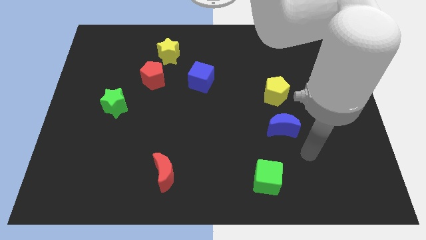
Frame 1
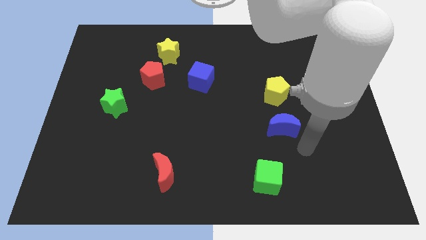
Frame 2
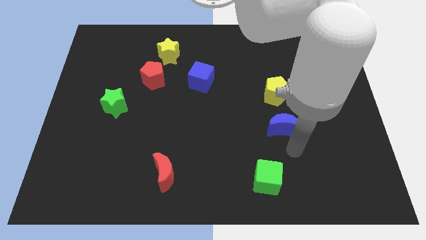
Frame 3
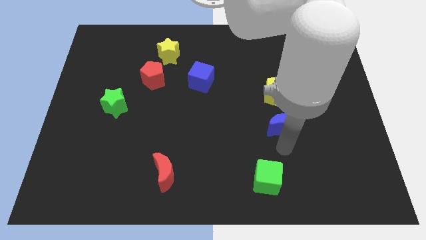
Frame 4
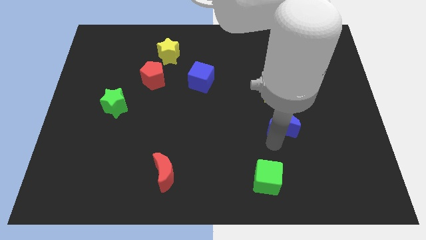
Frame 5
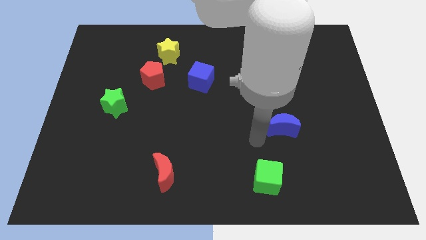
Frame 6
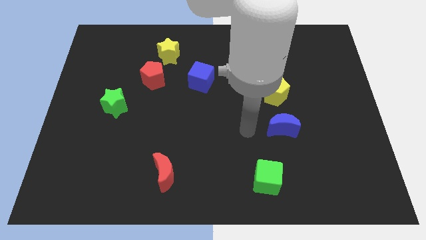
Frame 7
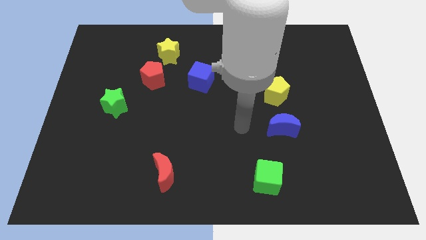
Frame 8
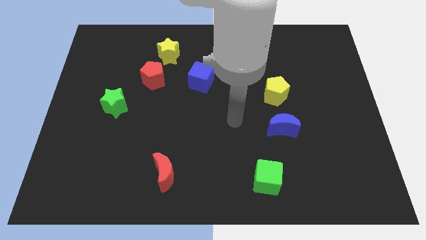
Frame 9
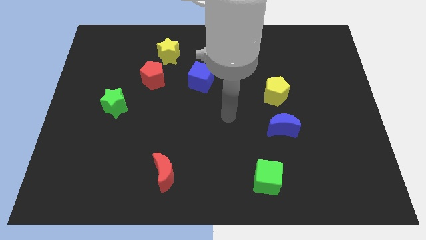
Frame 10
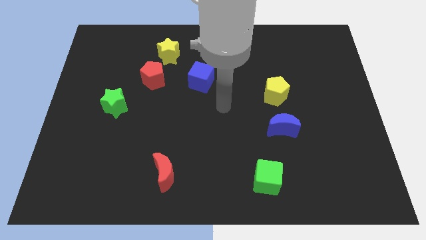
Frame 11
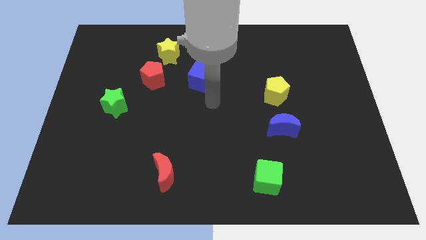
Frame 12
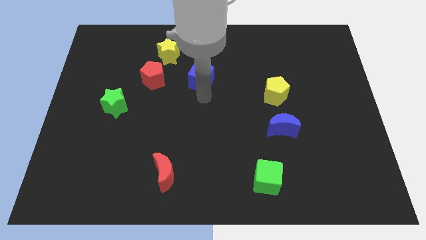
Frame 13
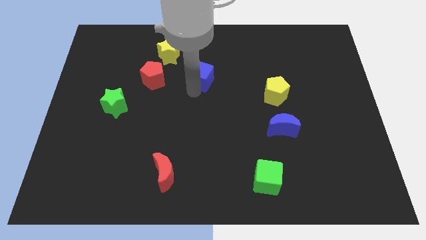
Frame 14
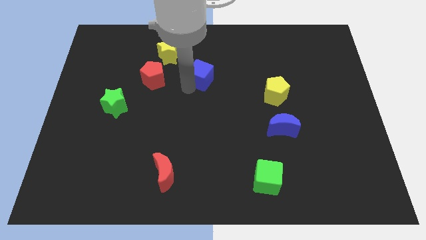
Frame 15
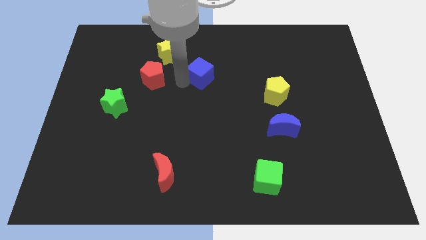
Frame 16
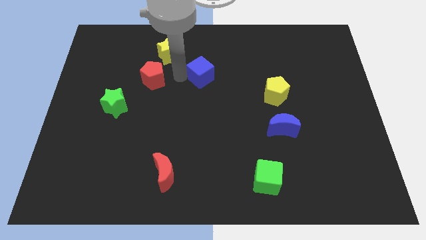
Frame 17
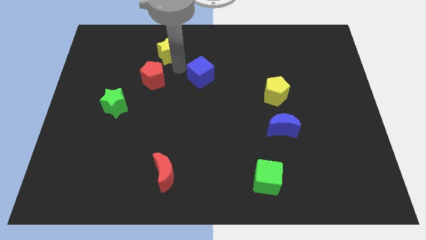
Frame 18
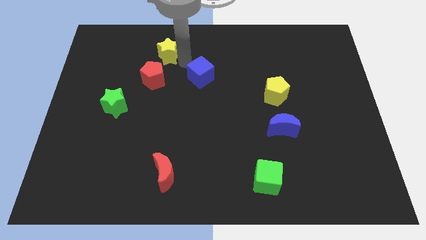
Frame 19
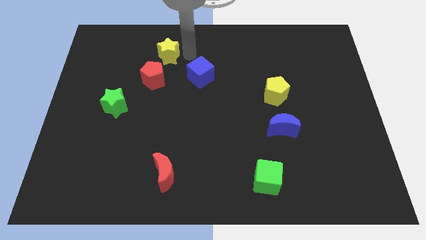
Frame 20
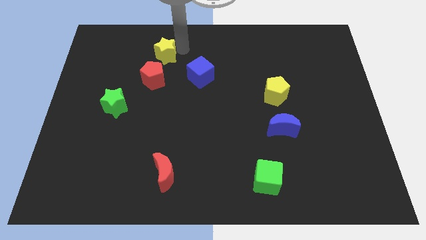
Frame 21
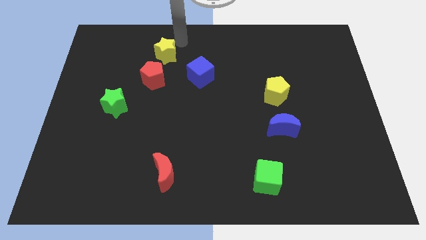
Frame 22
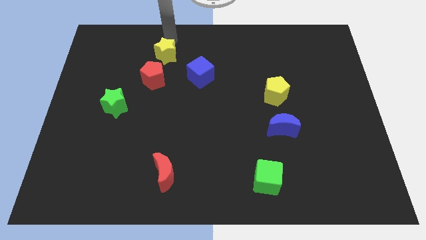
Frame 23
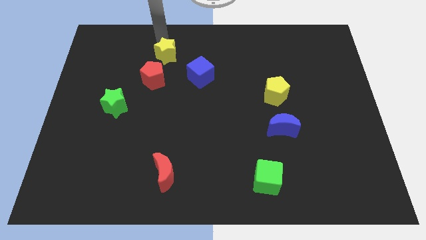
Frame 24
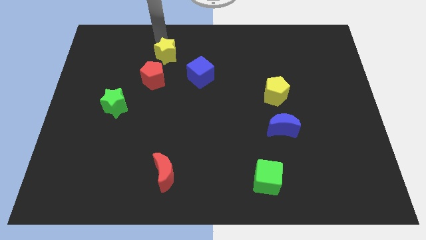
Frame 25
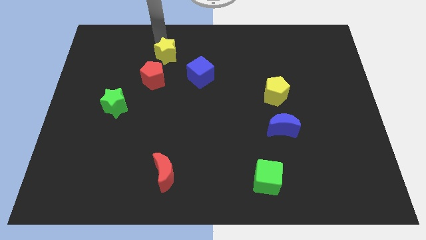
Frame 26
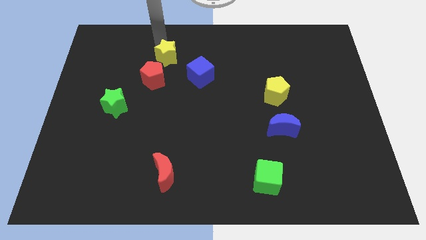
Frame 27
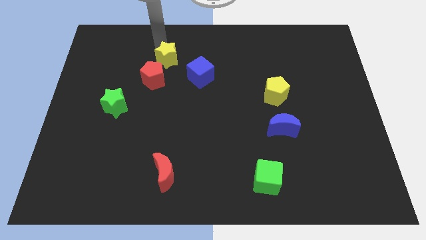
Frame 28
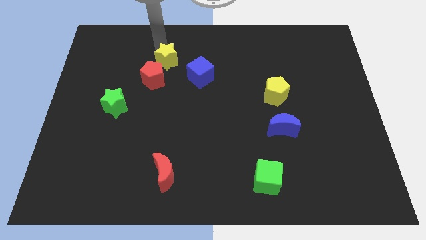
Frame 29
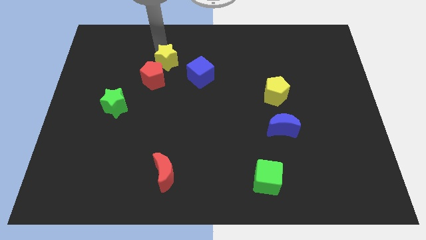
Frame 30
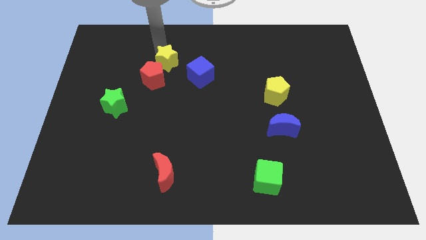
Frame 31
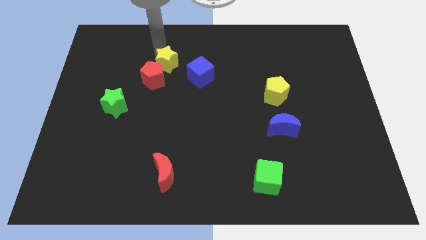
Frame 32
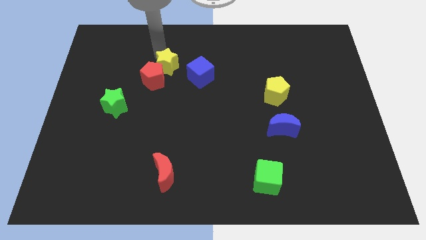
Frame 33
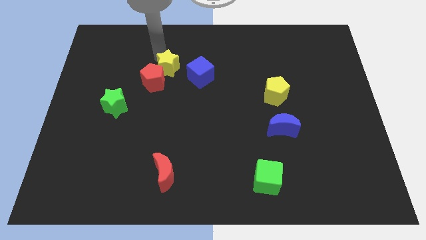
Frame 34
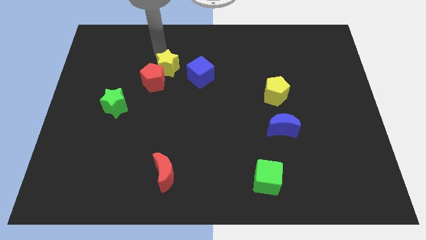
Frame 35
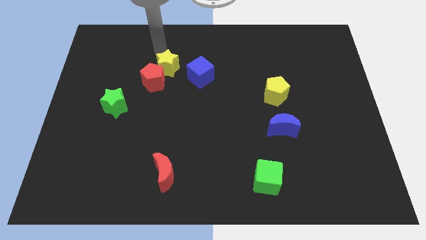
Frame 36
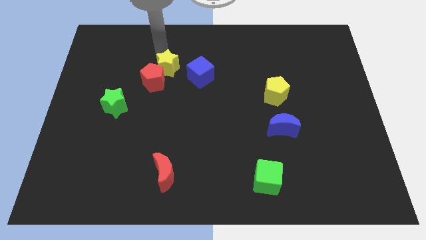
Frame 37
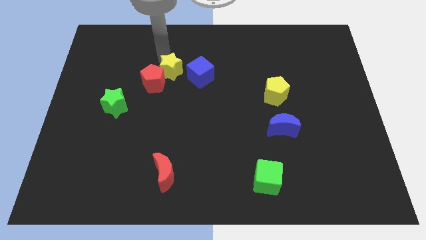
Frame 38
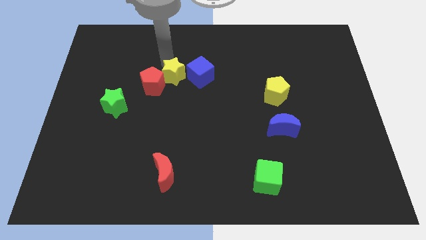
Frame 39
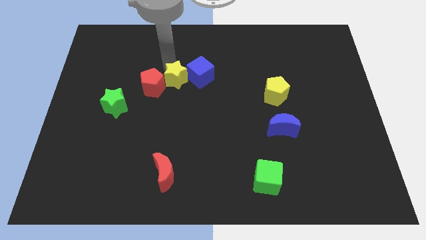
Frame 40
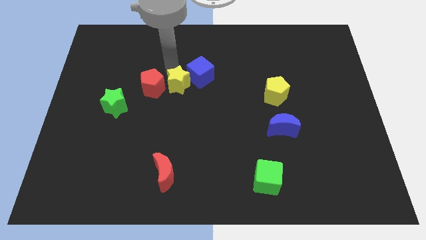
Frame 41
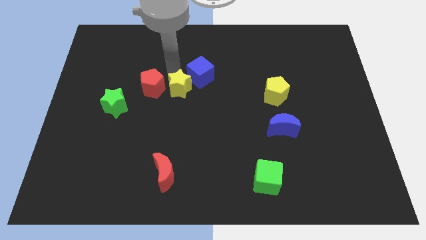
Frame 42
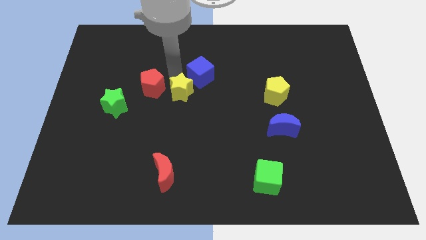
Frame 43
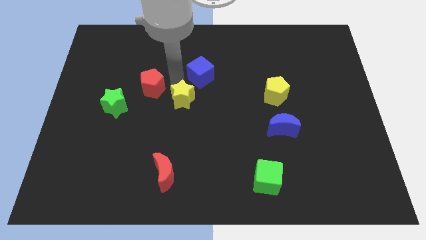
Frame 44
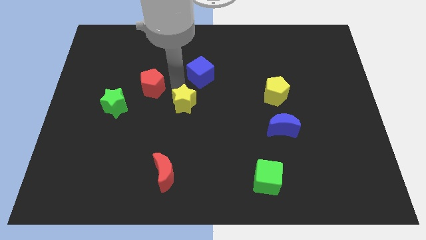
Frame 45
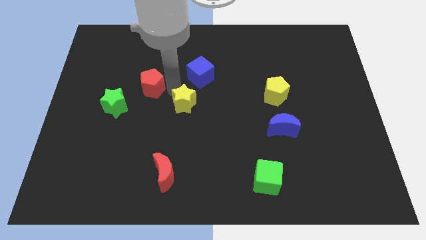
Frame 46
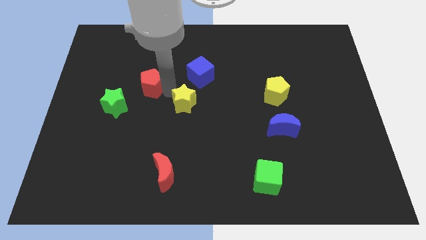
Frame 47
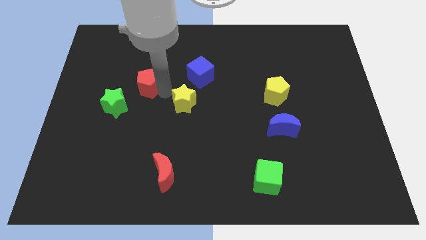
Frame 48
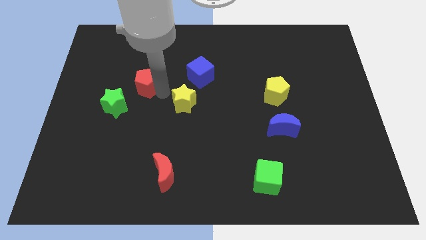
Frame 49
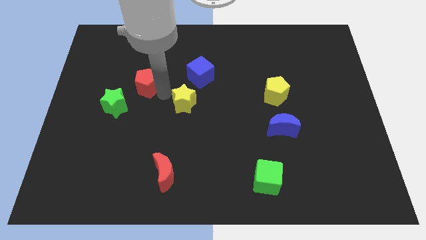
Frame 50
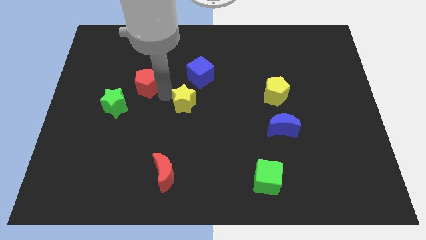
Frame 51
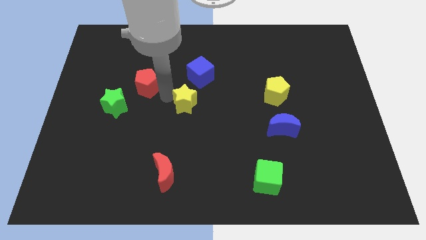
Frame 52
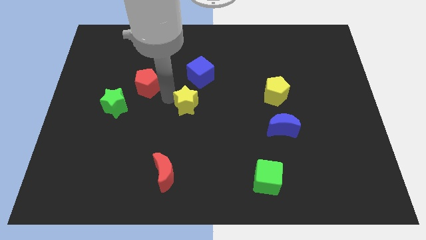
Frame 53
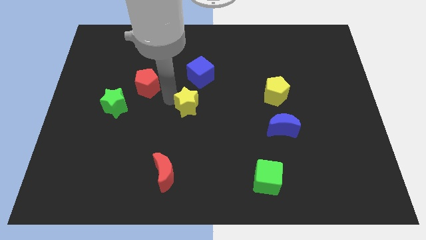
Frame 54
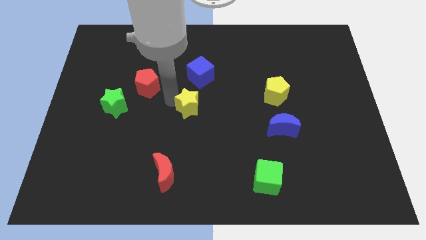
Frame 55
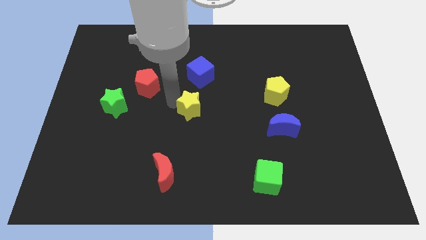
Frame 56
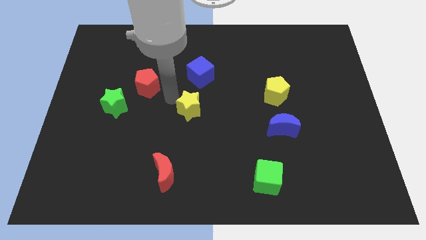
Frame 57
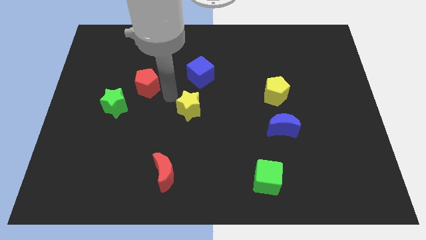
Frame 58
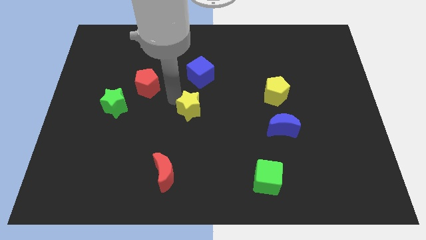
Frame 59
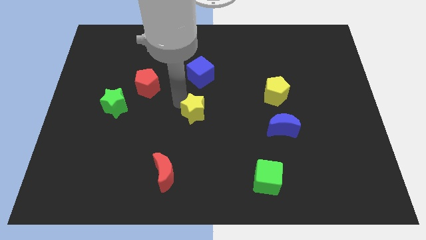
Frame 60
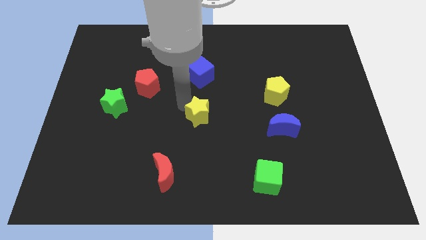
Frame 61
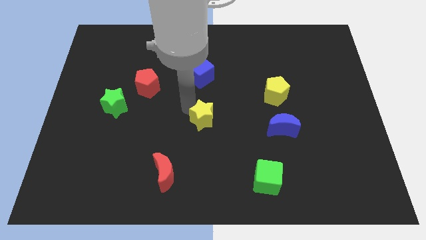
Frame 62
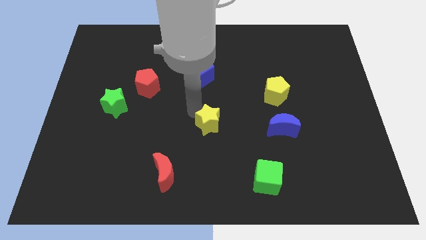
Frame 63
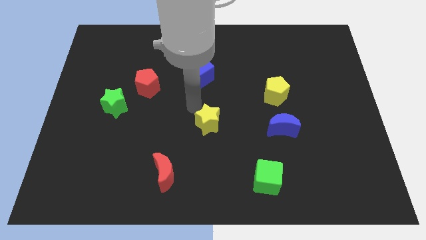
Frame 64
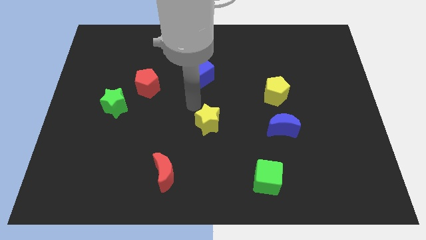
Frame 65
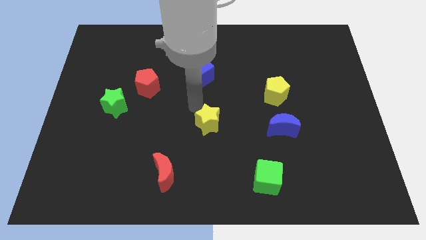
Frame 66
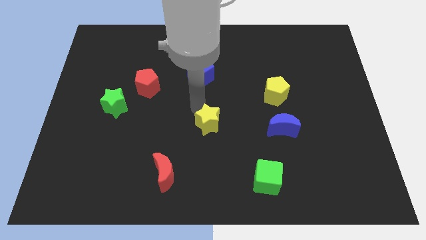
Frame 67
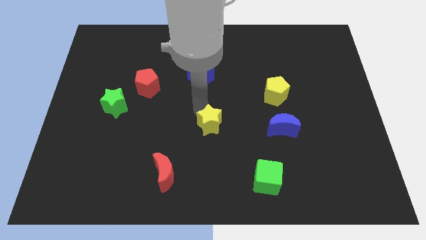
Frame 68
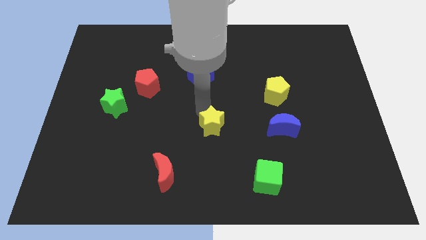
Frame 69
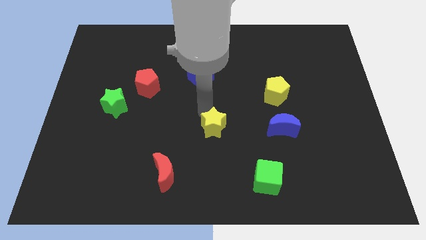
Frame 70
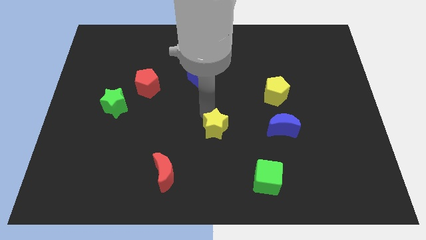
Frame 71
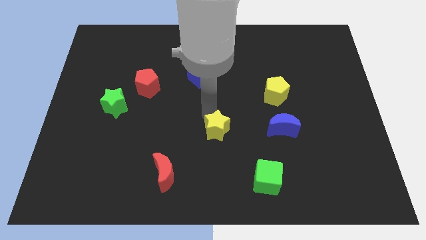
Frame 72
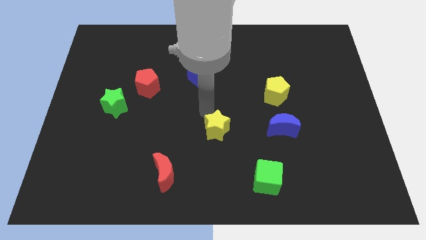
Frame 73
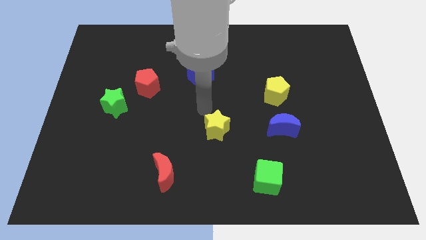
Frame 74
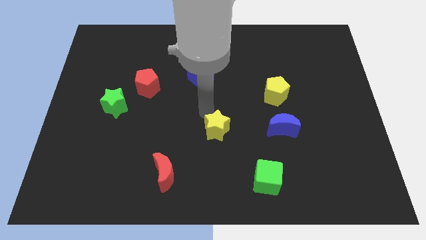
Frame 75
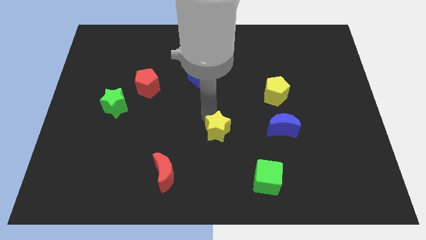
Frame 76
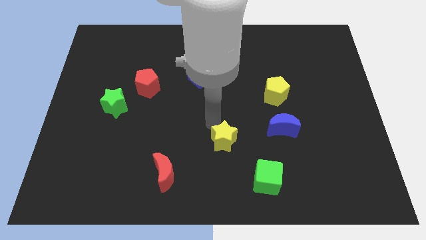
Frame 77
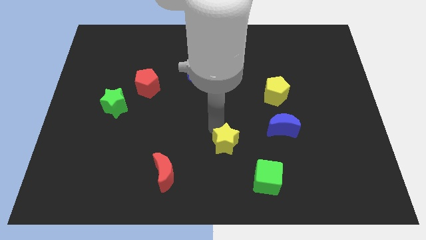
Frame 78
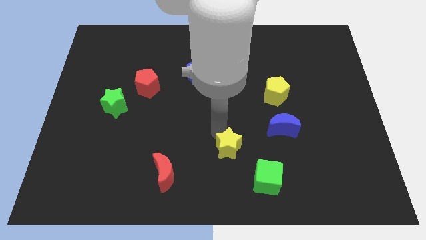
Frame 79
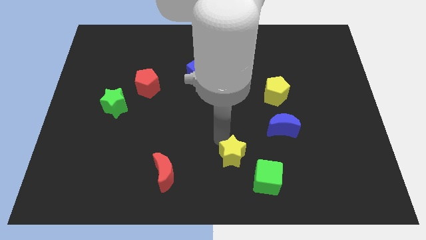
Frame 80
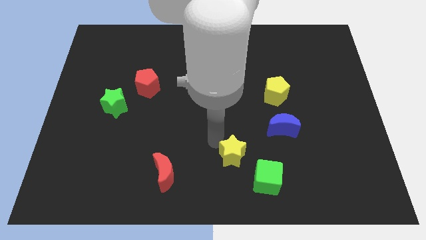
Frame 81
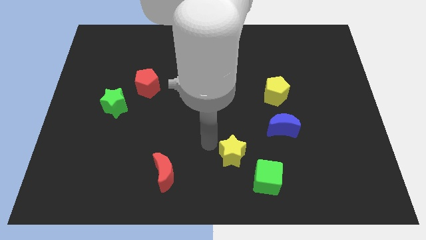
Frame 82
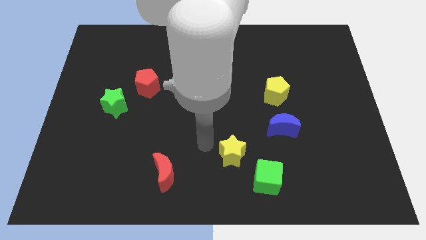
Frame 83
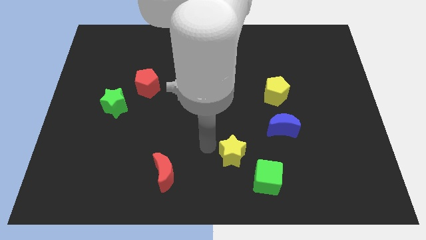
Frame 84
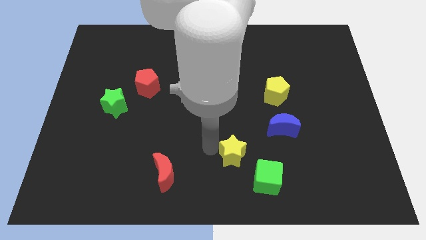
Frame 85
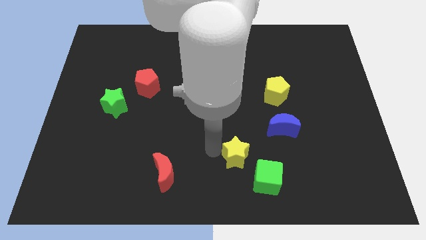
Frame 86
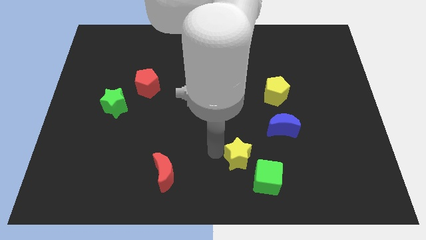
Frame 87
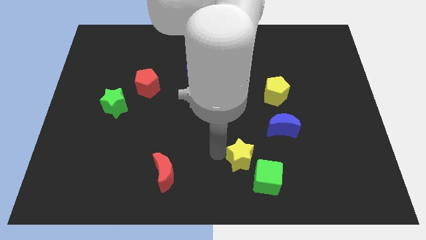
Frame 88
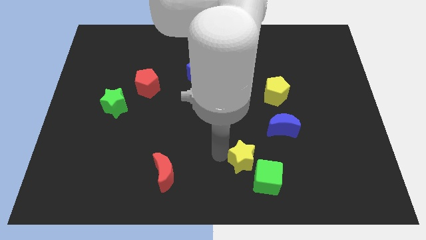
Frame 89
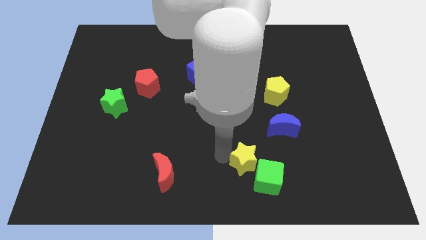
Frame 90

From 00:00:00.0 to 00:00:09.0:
put the yellow star towards the green cube
